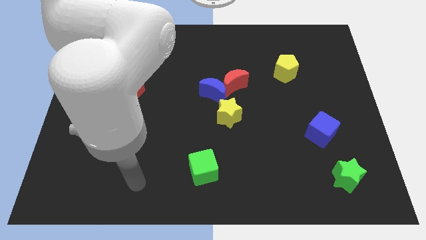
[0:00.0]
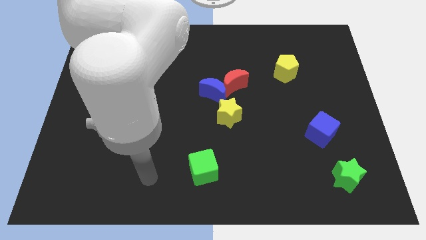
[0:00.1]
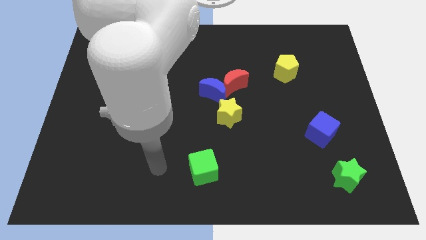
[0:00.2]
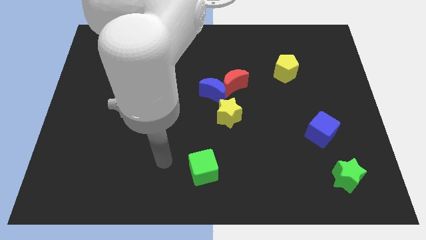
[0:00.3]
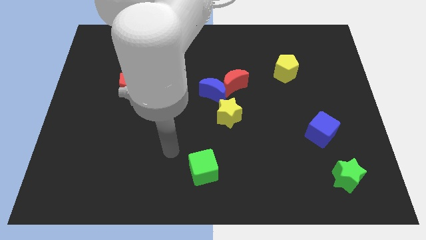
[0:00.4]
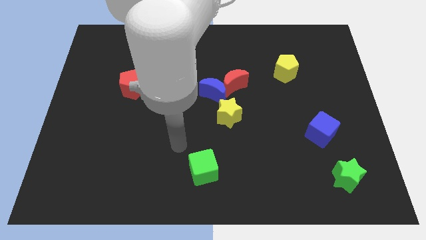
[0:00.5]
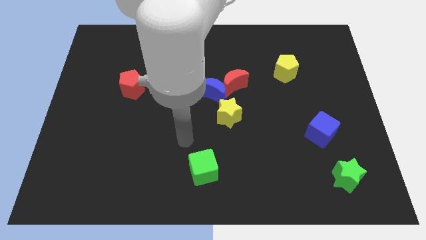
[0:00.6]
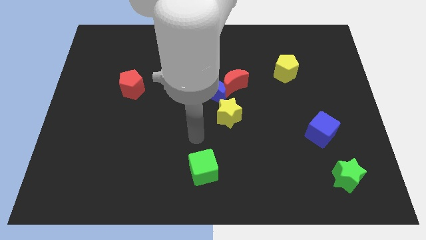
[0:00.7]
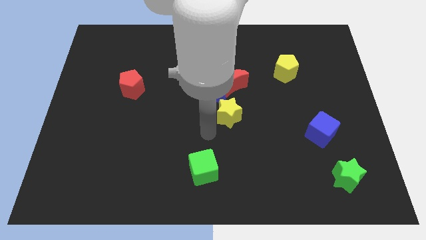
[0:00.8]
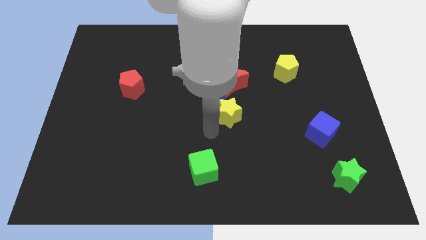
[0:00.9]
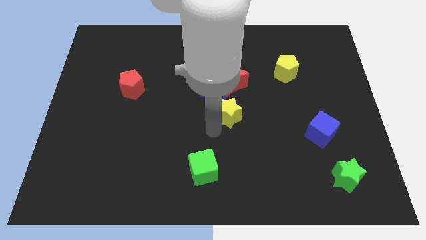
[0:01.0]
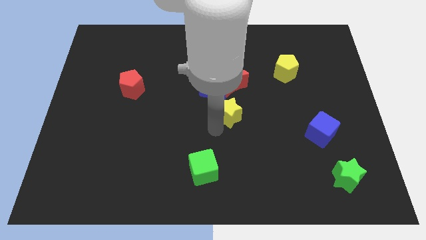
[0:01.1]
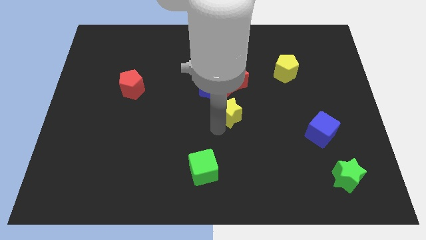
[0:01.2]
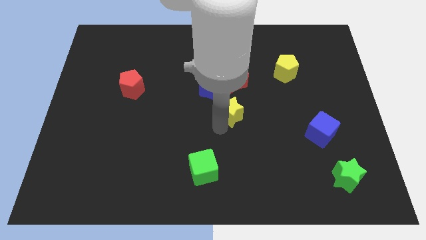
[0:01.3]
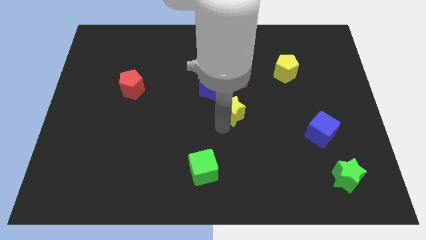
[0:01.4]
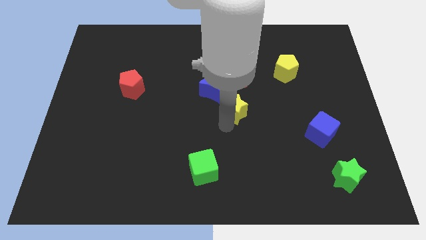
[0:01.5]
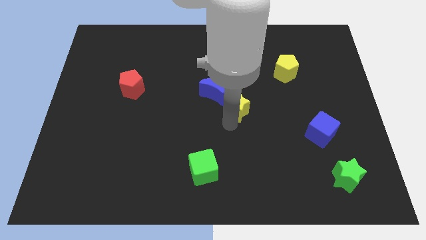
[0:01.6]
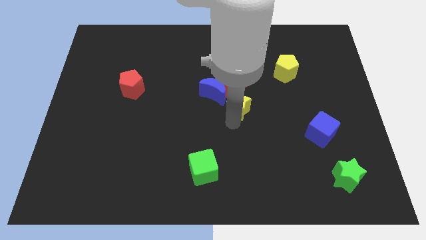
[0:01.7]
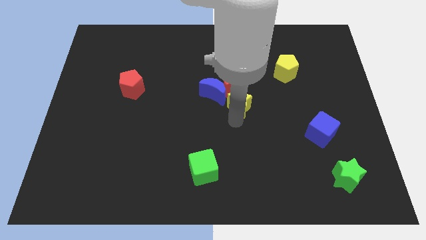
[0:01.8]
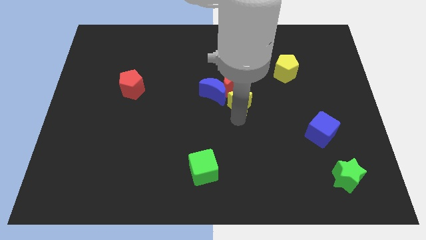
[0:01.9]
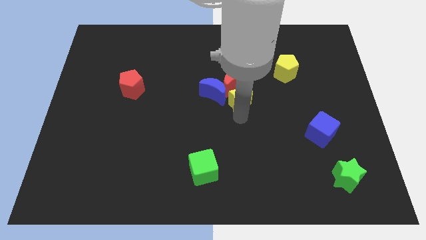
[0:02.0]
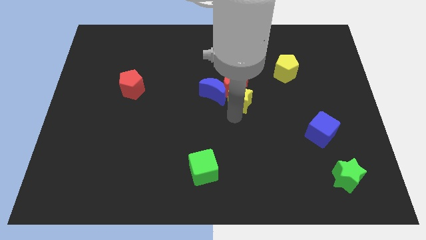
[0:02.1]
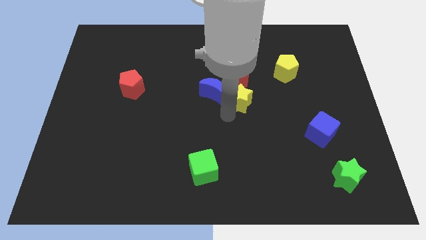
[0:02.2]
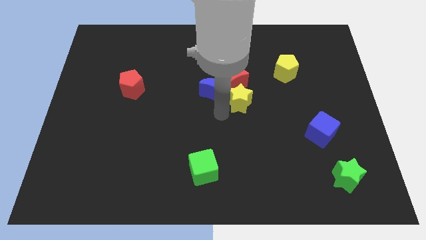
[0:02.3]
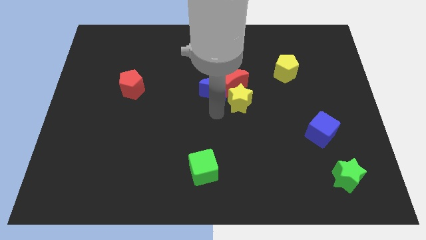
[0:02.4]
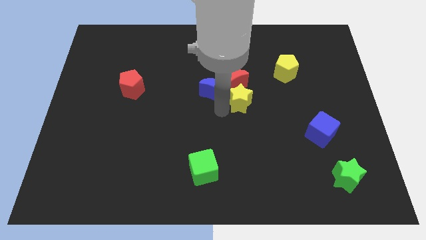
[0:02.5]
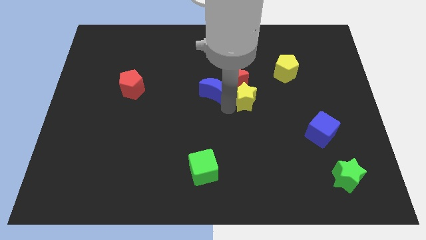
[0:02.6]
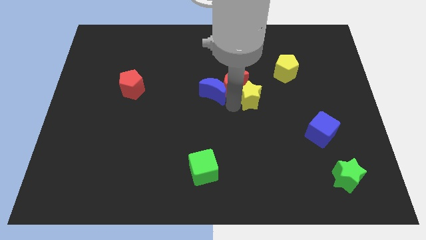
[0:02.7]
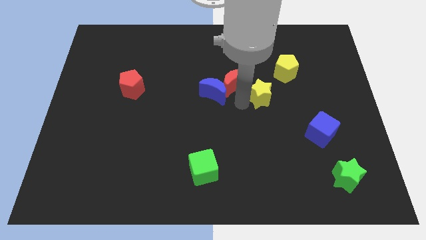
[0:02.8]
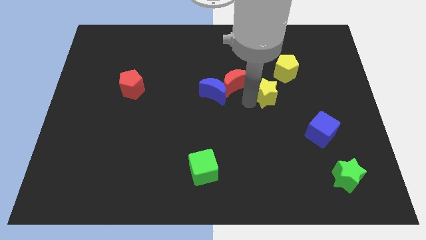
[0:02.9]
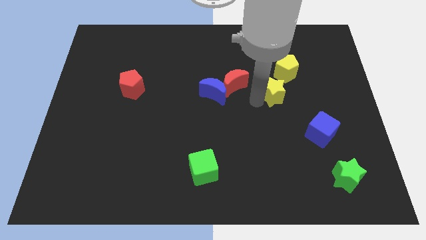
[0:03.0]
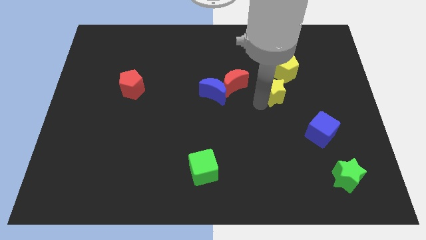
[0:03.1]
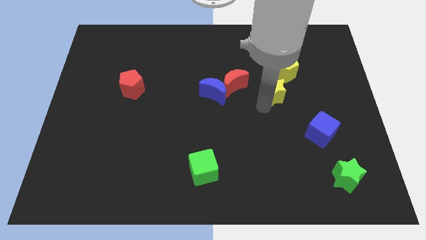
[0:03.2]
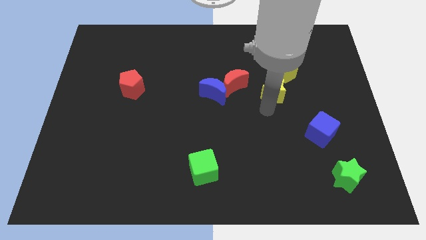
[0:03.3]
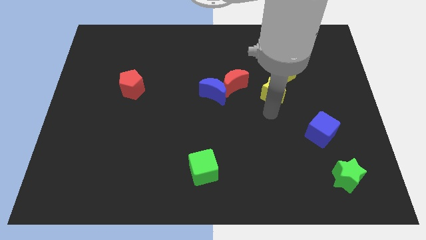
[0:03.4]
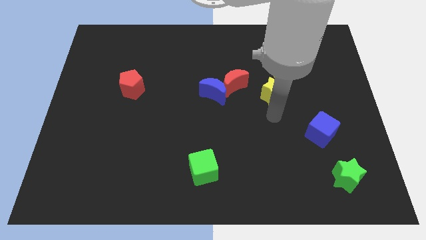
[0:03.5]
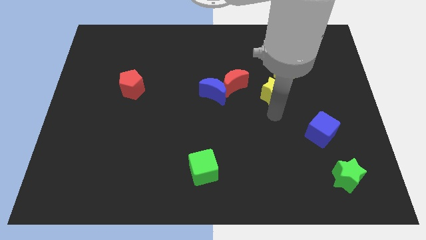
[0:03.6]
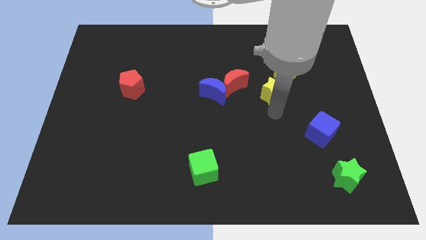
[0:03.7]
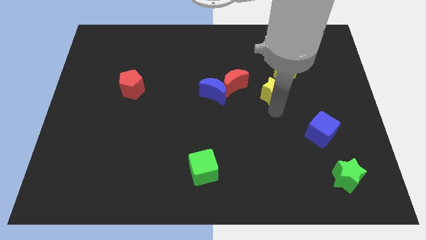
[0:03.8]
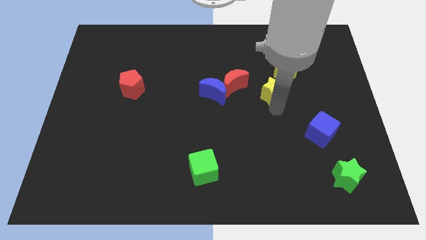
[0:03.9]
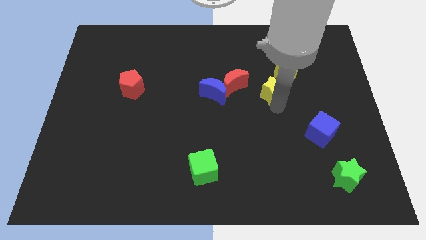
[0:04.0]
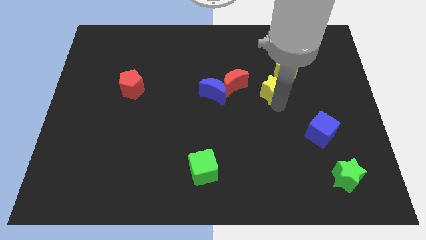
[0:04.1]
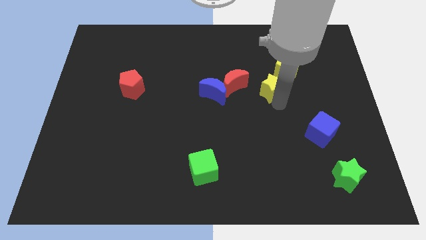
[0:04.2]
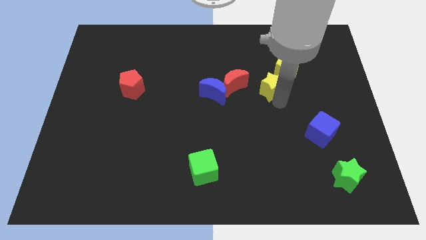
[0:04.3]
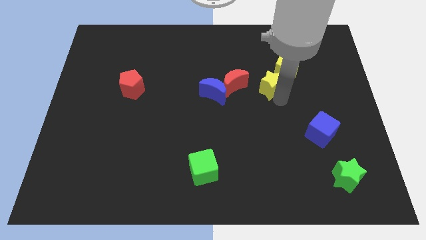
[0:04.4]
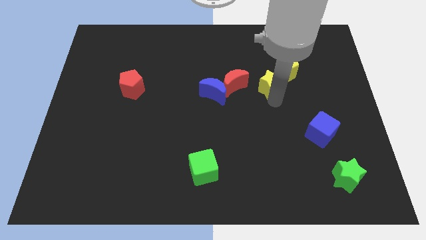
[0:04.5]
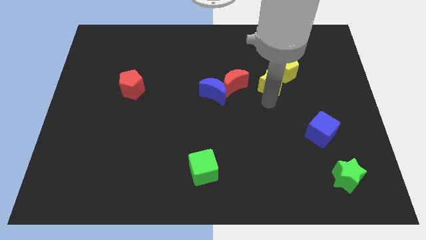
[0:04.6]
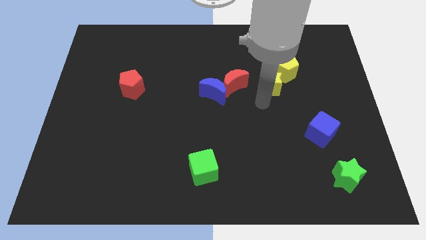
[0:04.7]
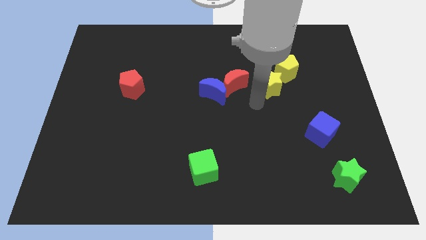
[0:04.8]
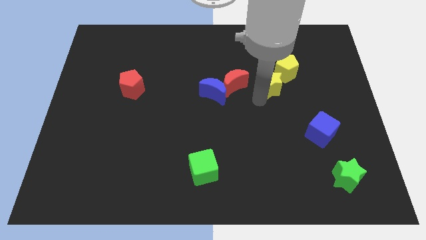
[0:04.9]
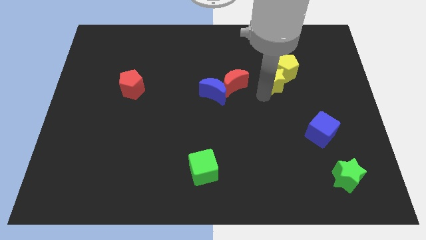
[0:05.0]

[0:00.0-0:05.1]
push the yellow star next to the yellow pentagon

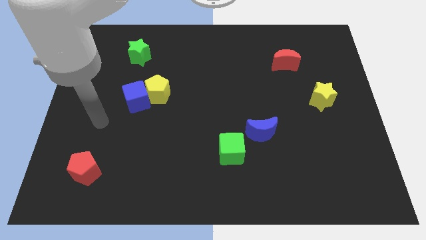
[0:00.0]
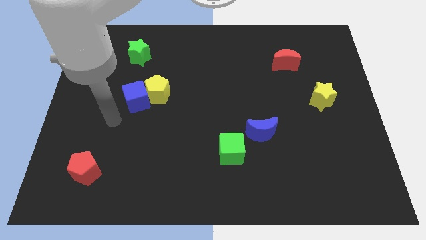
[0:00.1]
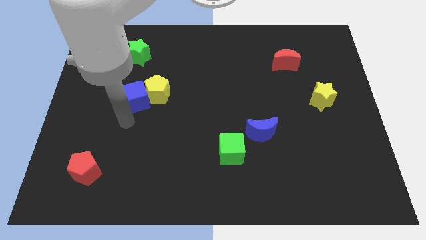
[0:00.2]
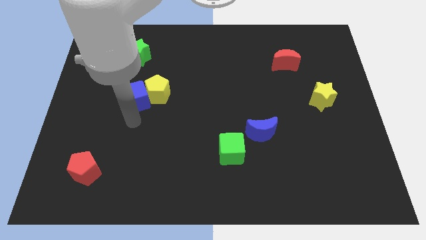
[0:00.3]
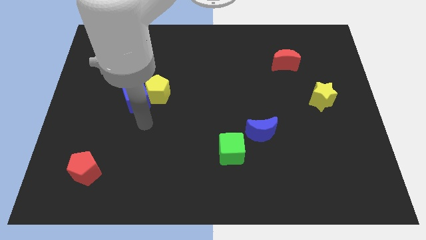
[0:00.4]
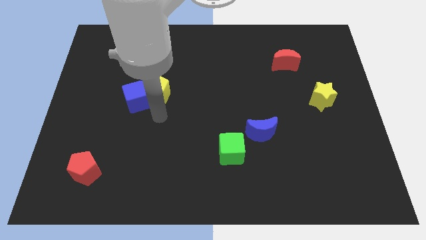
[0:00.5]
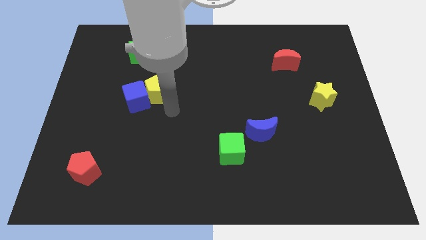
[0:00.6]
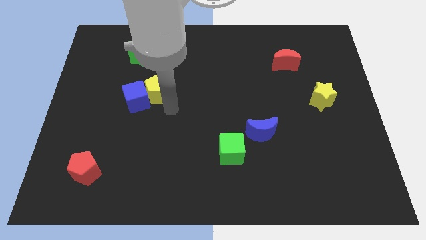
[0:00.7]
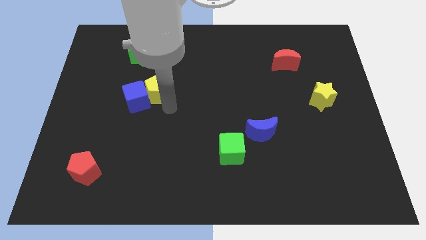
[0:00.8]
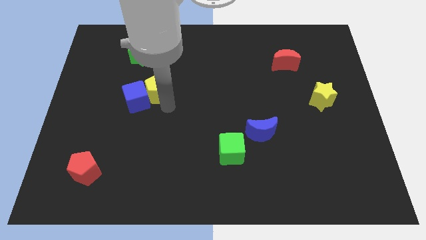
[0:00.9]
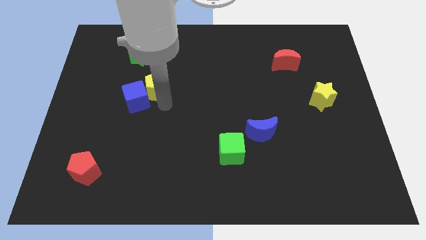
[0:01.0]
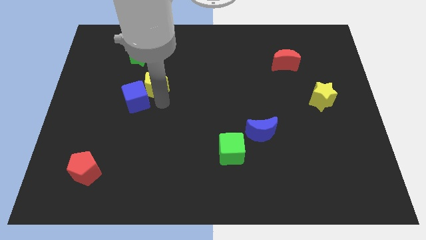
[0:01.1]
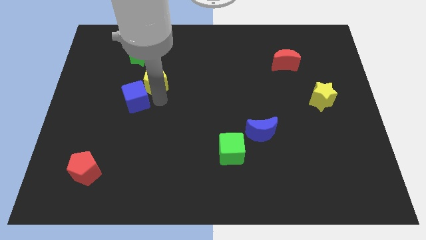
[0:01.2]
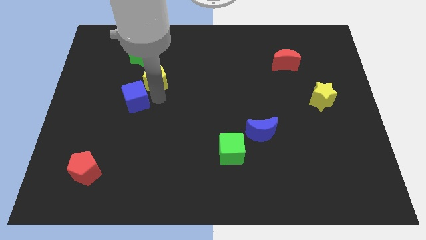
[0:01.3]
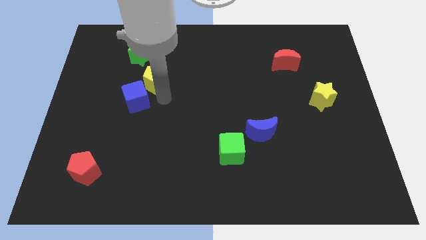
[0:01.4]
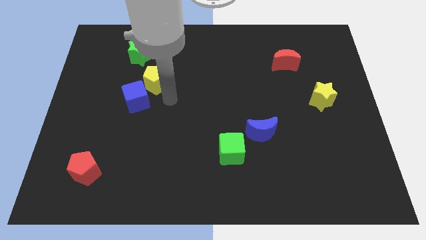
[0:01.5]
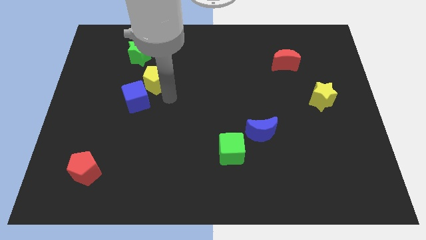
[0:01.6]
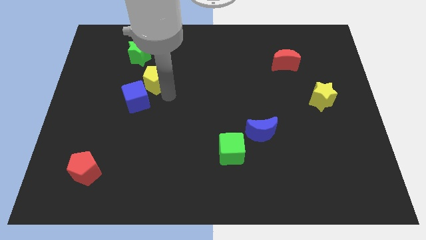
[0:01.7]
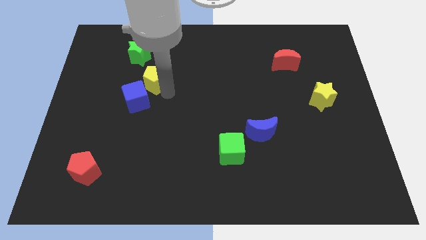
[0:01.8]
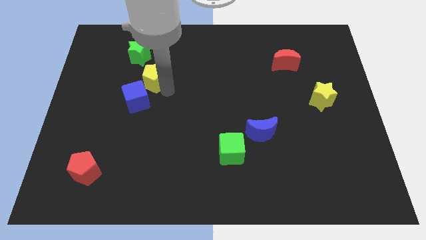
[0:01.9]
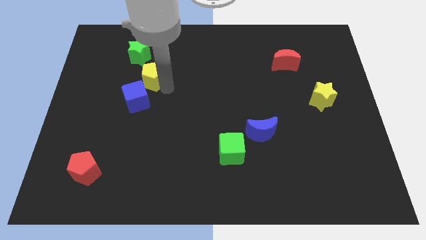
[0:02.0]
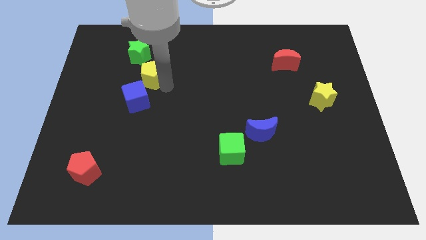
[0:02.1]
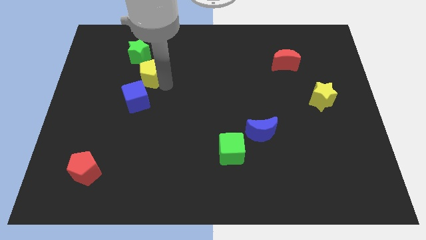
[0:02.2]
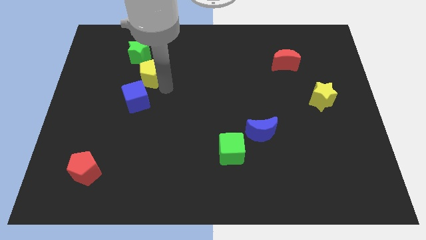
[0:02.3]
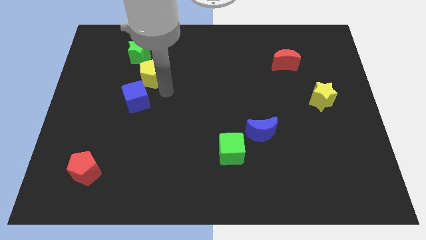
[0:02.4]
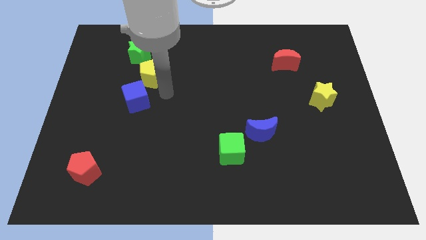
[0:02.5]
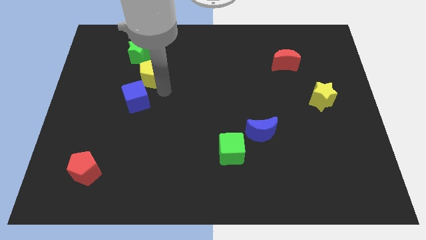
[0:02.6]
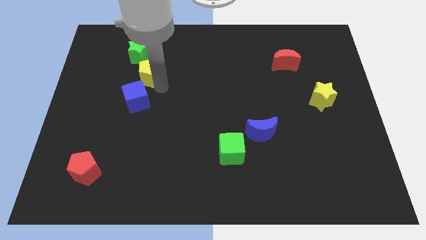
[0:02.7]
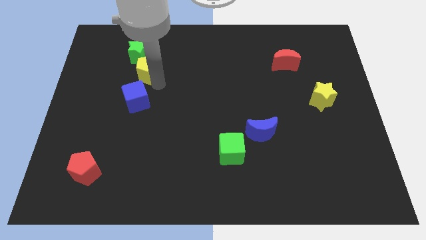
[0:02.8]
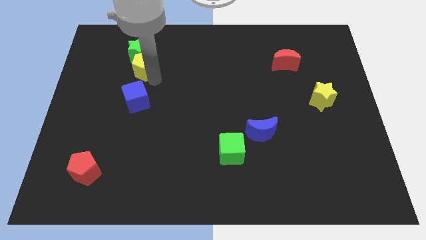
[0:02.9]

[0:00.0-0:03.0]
put the yellow pentagon close to the green star
